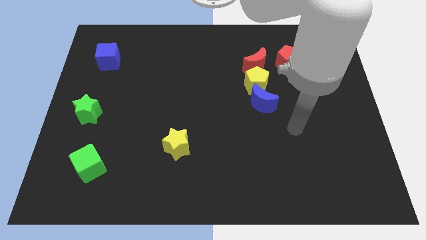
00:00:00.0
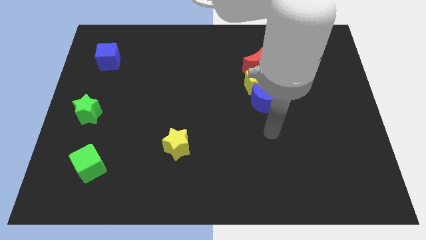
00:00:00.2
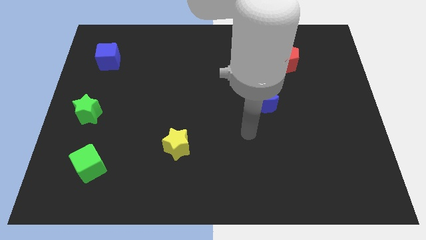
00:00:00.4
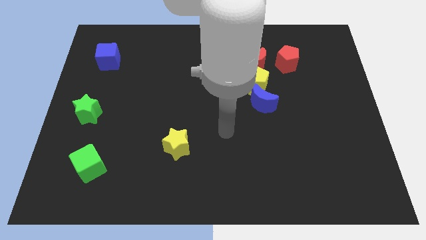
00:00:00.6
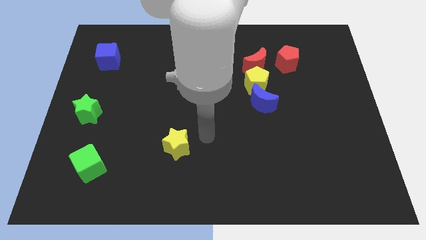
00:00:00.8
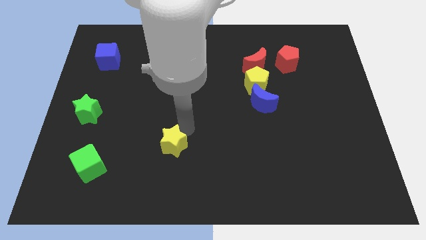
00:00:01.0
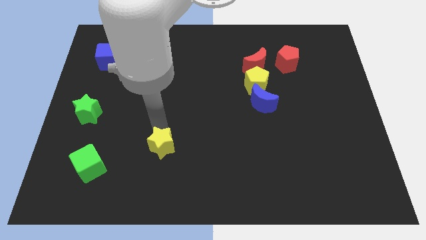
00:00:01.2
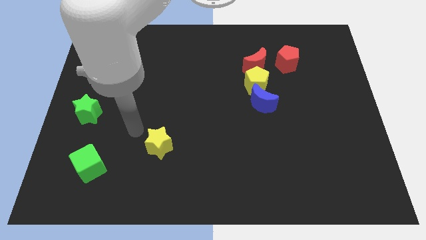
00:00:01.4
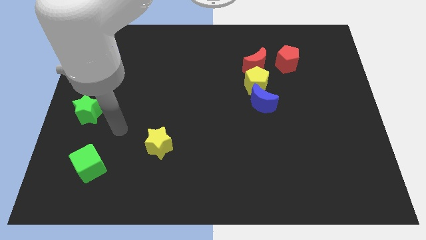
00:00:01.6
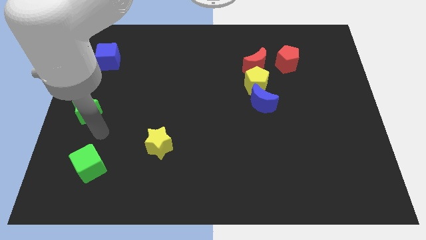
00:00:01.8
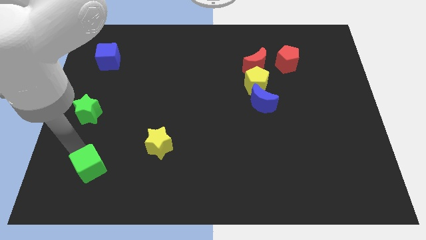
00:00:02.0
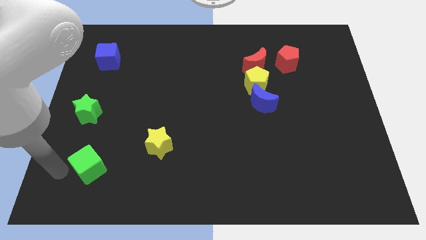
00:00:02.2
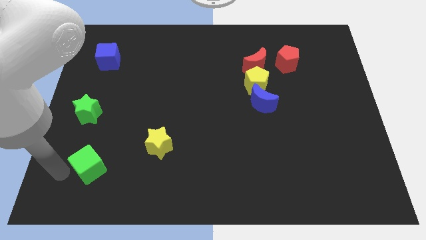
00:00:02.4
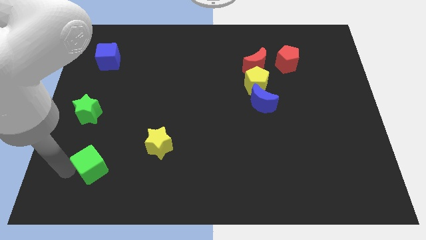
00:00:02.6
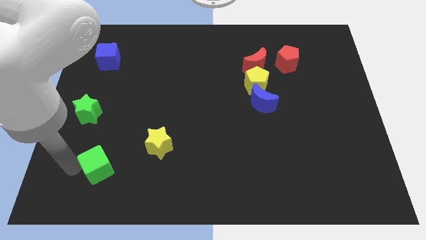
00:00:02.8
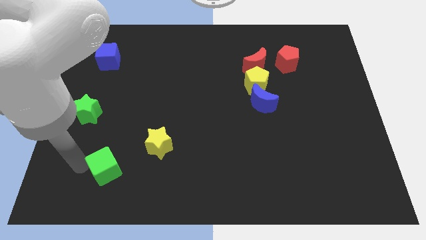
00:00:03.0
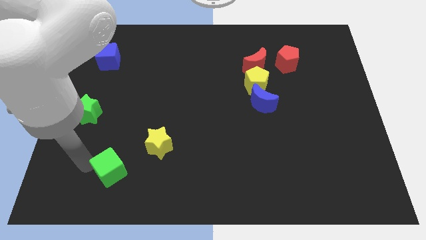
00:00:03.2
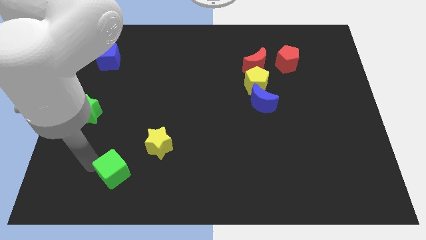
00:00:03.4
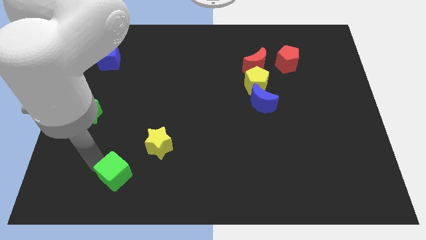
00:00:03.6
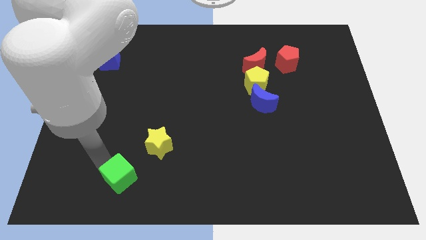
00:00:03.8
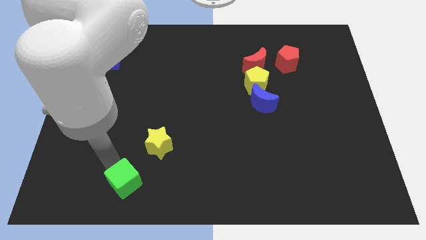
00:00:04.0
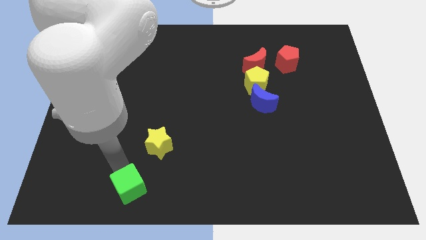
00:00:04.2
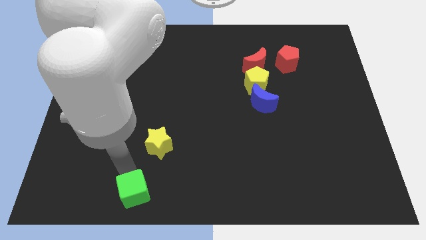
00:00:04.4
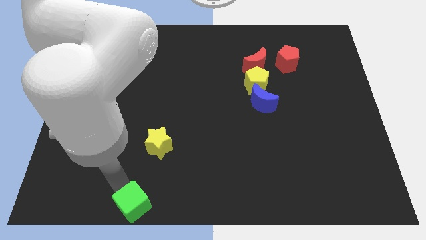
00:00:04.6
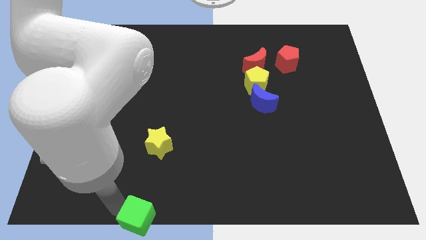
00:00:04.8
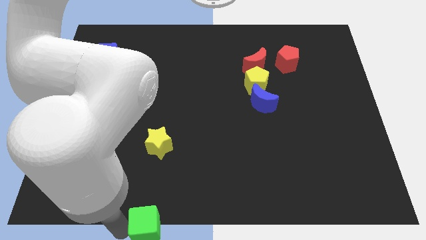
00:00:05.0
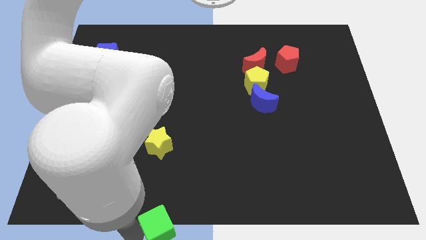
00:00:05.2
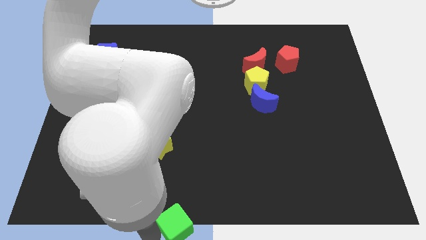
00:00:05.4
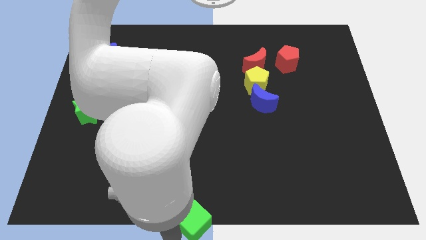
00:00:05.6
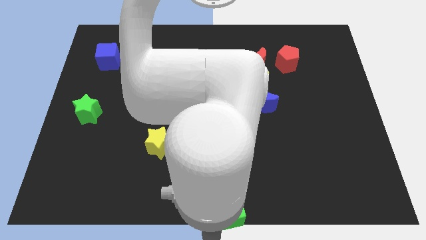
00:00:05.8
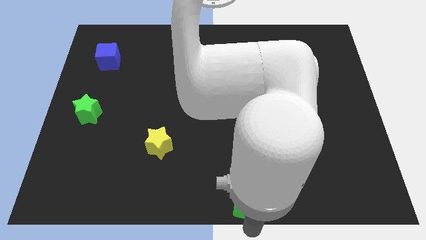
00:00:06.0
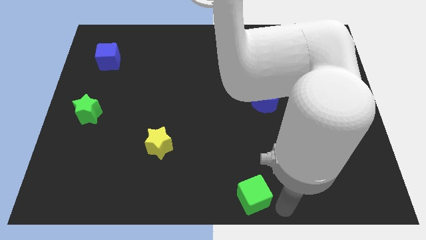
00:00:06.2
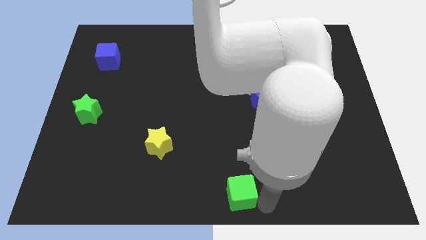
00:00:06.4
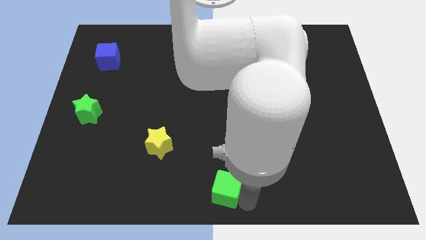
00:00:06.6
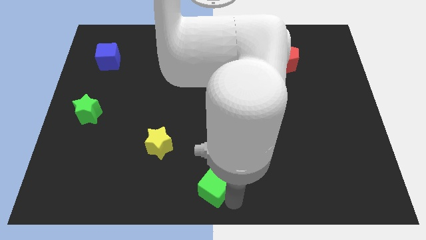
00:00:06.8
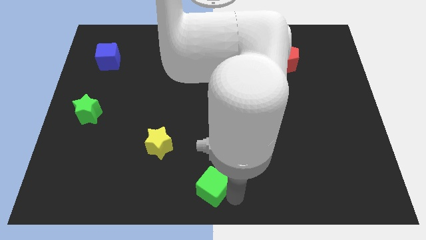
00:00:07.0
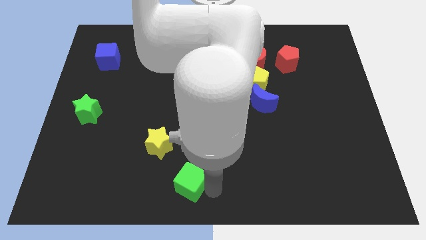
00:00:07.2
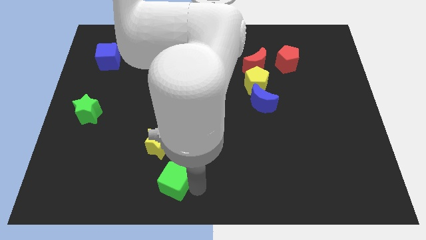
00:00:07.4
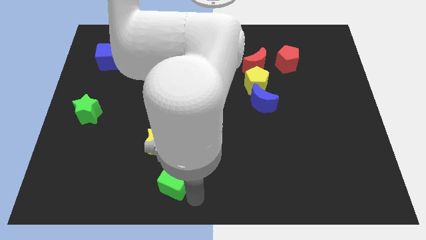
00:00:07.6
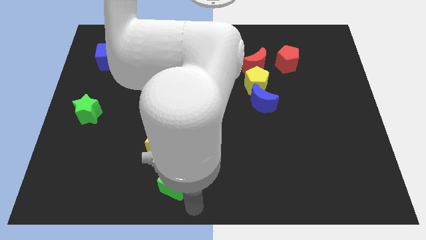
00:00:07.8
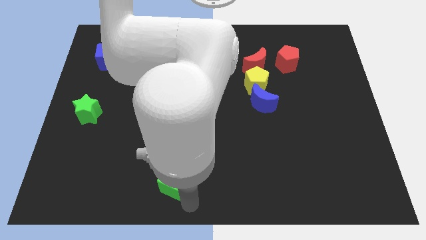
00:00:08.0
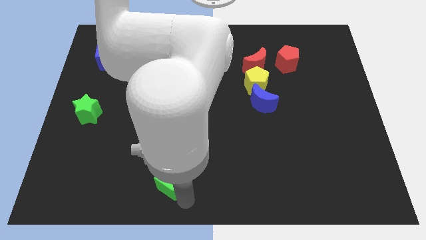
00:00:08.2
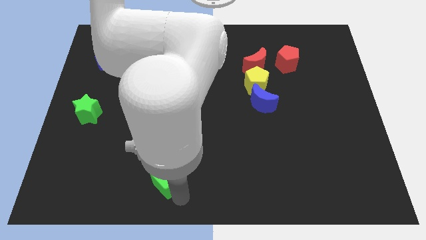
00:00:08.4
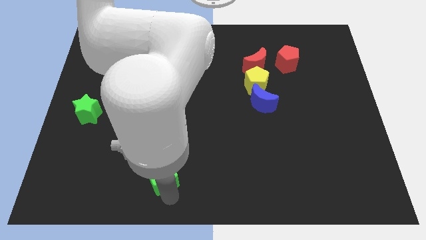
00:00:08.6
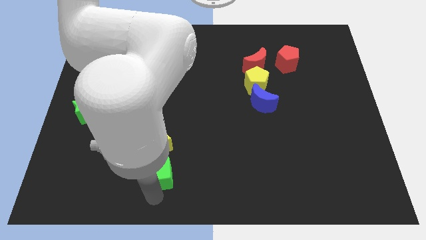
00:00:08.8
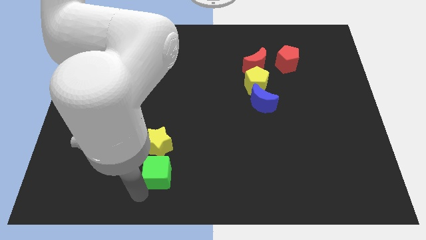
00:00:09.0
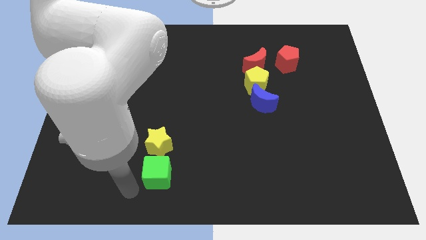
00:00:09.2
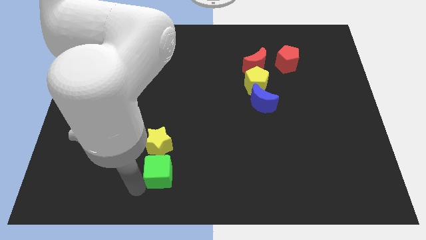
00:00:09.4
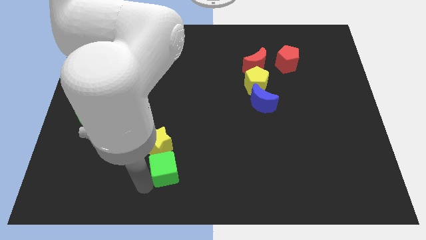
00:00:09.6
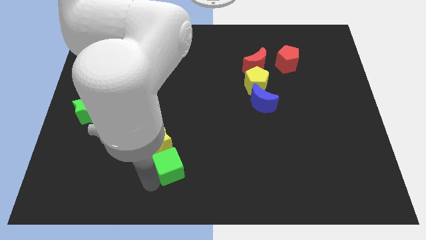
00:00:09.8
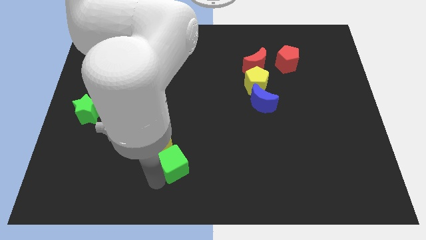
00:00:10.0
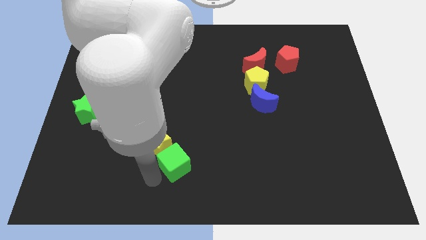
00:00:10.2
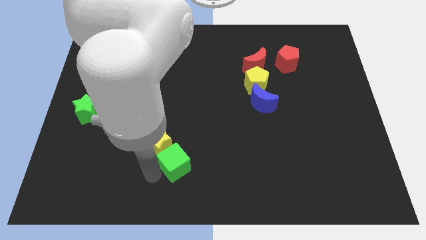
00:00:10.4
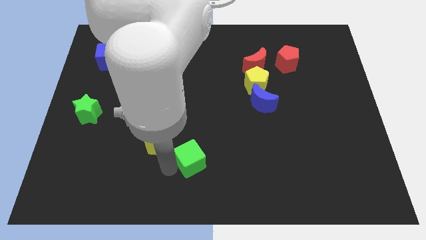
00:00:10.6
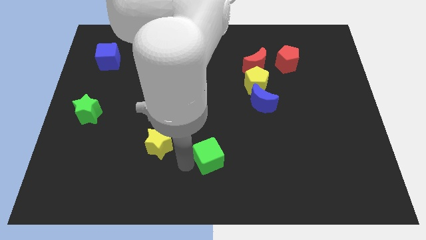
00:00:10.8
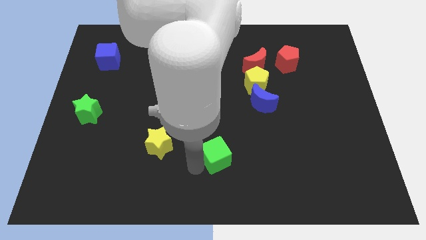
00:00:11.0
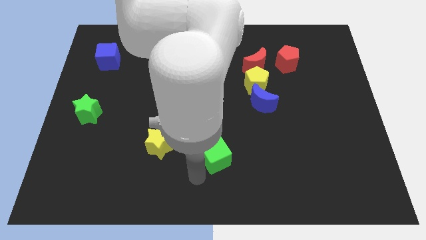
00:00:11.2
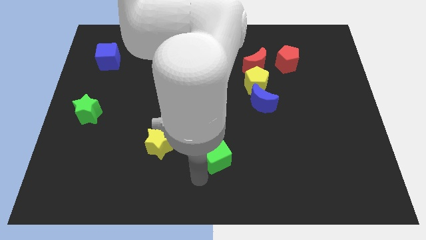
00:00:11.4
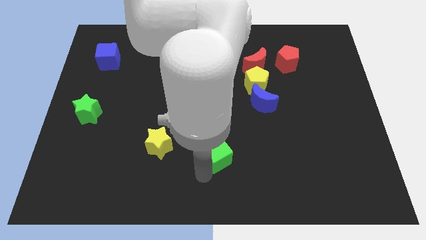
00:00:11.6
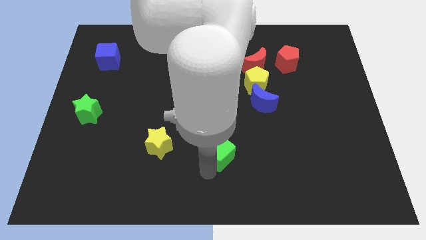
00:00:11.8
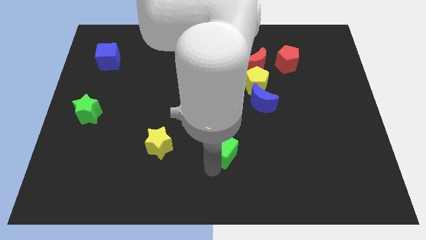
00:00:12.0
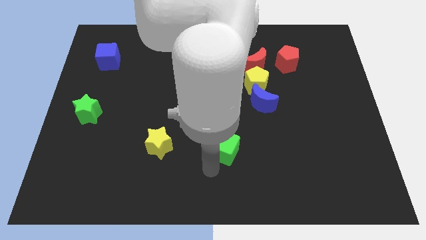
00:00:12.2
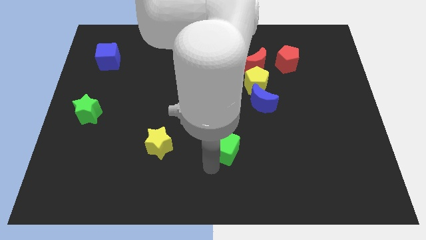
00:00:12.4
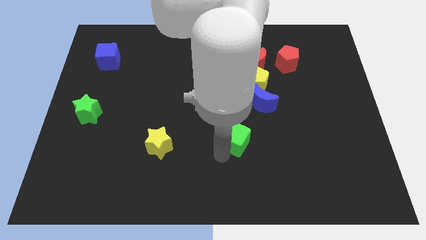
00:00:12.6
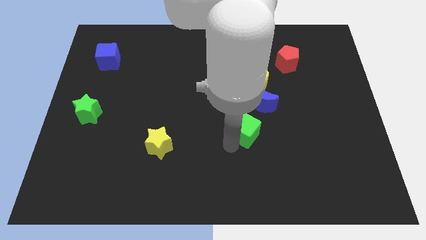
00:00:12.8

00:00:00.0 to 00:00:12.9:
push the green cube to the bottom of the yellow pentagon

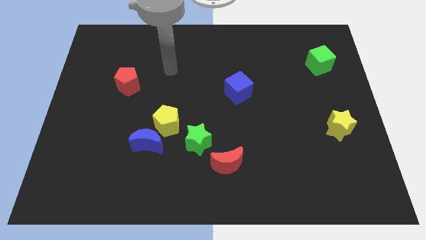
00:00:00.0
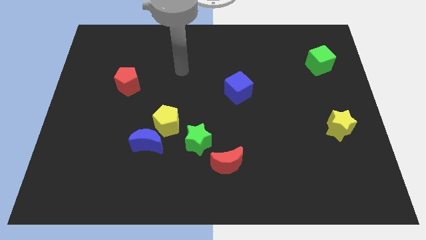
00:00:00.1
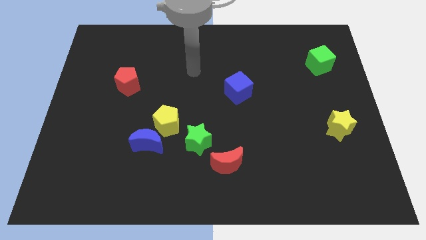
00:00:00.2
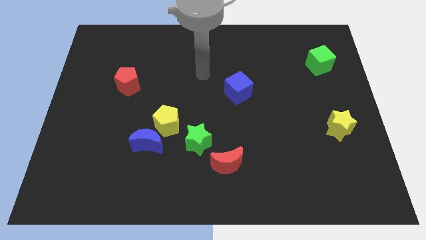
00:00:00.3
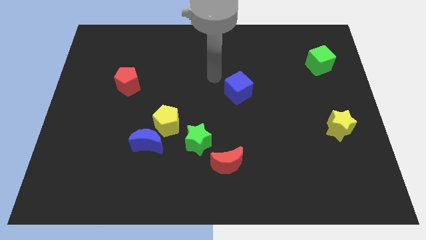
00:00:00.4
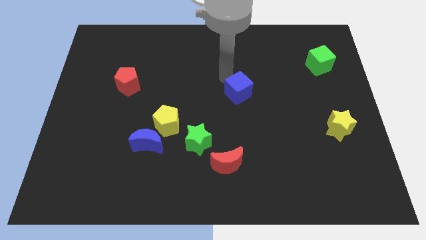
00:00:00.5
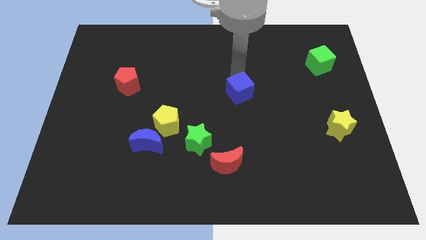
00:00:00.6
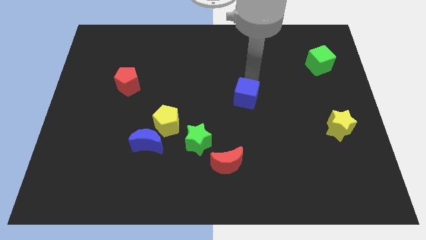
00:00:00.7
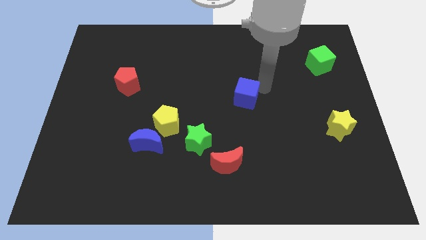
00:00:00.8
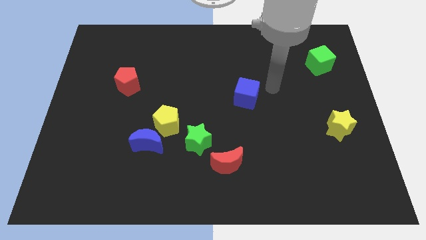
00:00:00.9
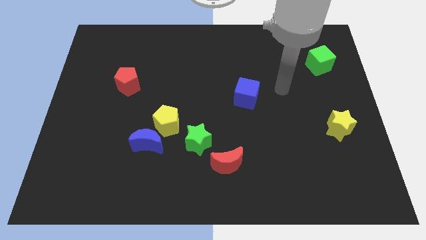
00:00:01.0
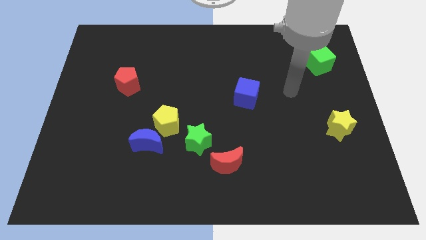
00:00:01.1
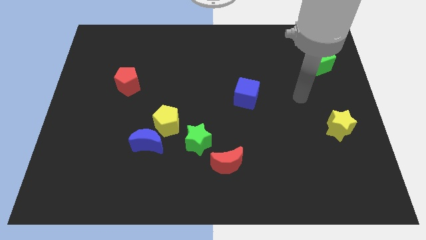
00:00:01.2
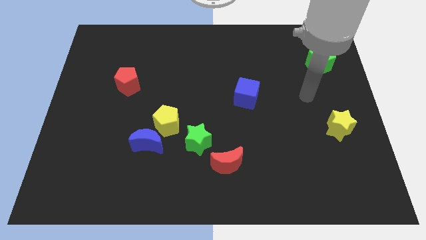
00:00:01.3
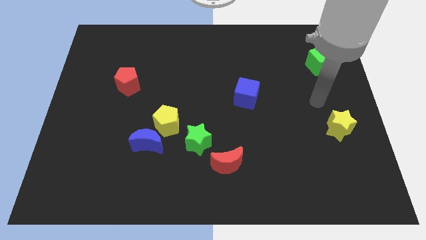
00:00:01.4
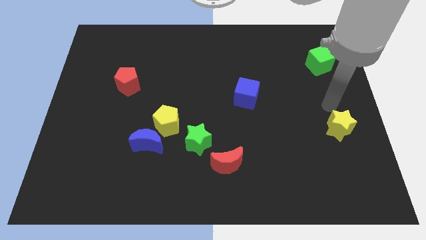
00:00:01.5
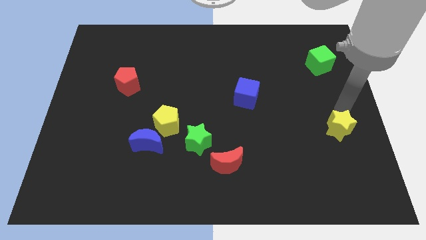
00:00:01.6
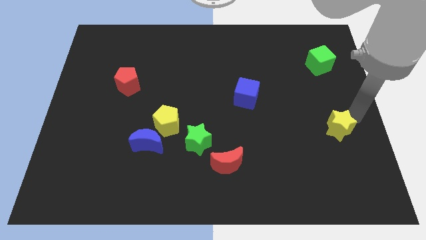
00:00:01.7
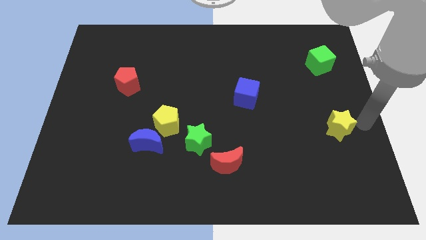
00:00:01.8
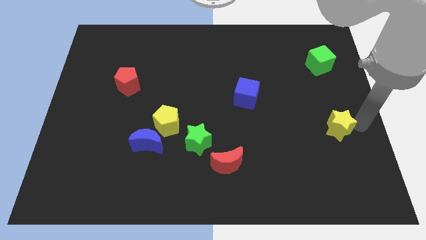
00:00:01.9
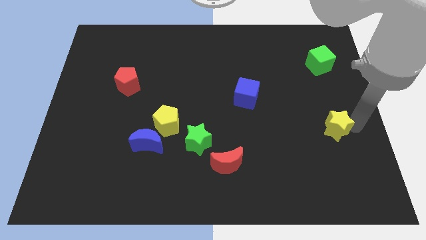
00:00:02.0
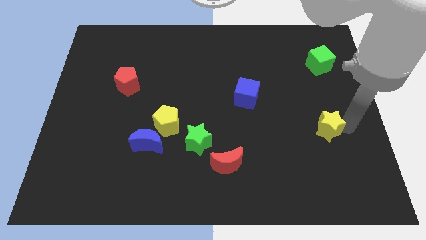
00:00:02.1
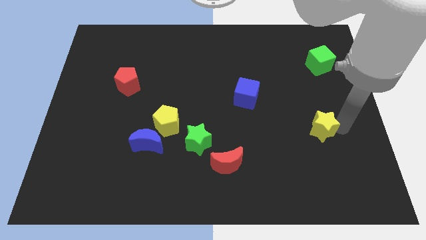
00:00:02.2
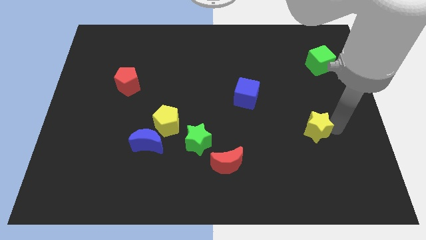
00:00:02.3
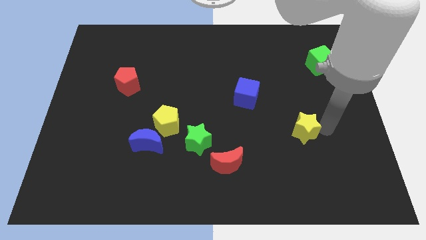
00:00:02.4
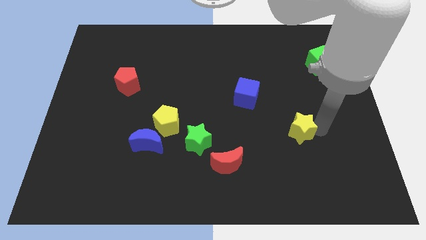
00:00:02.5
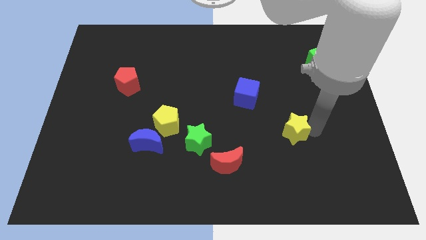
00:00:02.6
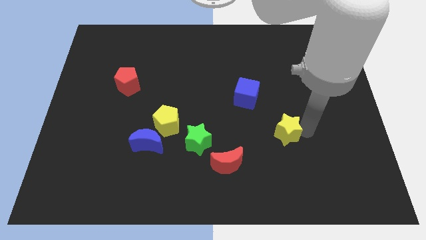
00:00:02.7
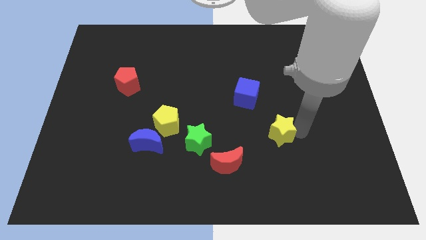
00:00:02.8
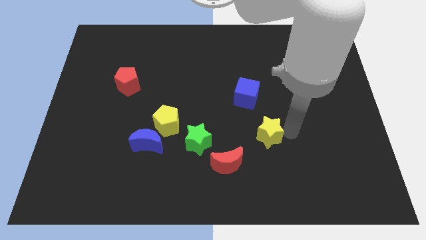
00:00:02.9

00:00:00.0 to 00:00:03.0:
move the yellow star to the right of the green star
